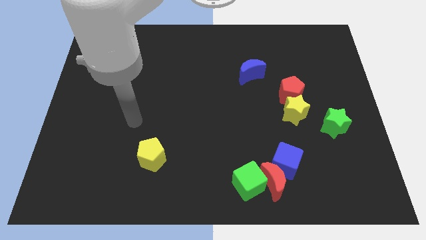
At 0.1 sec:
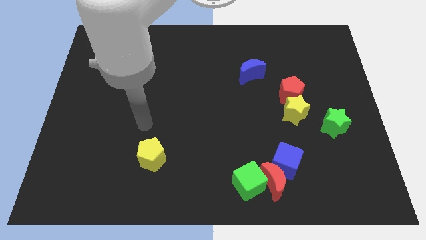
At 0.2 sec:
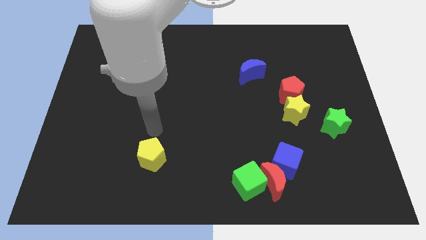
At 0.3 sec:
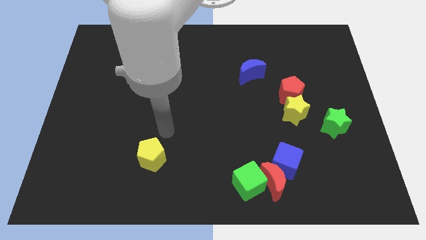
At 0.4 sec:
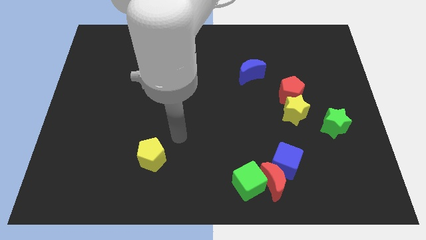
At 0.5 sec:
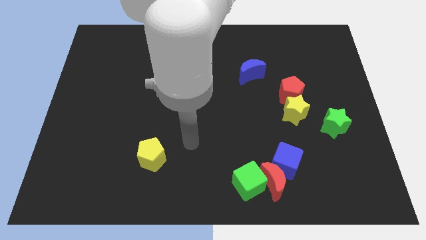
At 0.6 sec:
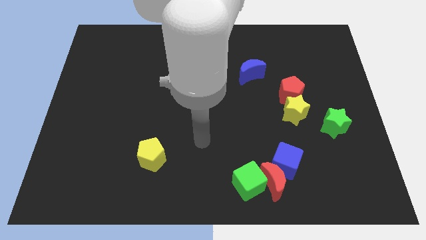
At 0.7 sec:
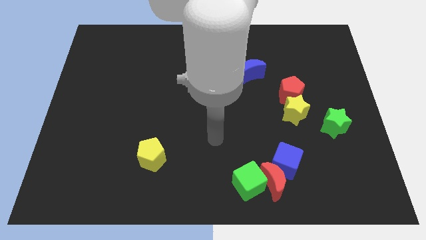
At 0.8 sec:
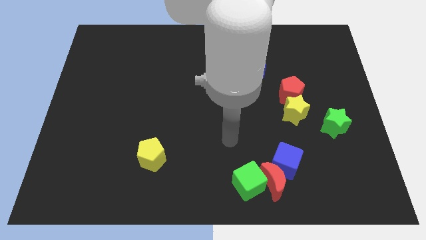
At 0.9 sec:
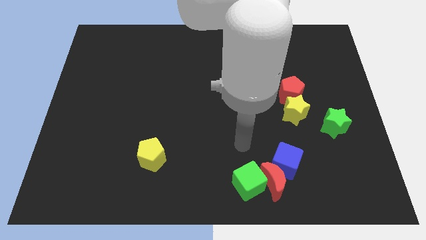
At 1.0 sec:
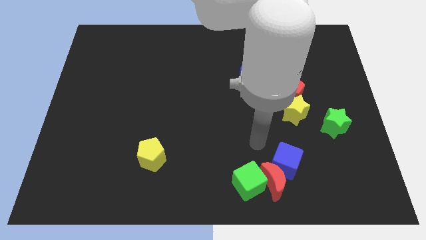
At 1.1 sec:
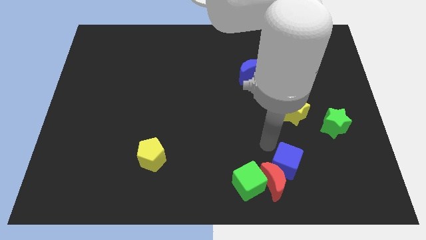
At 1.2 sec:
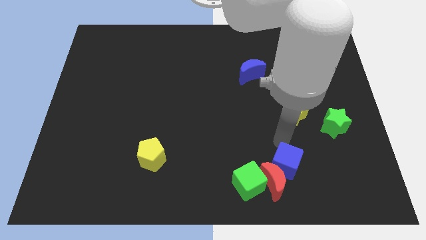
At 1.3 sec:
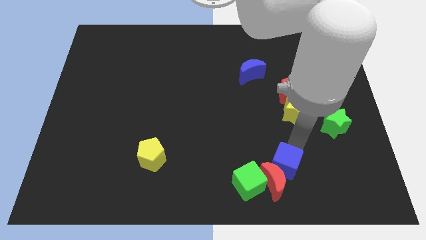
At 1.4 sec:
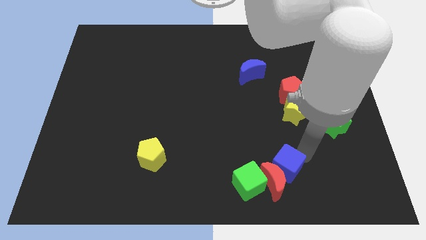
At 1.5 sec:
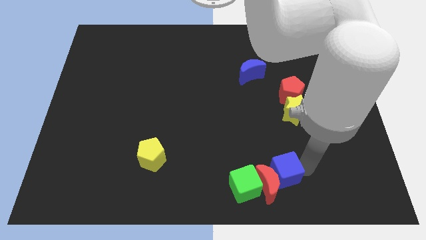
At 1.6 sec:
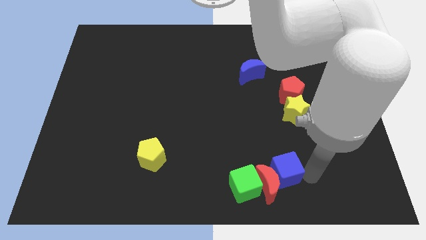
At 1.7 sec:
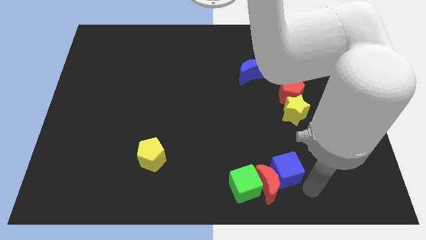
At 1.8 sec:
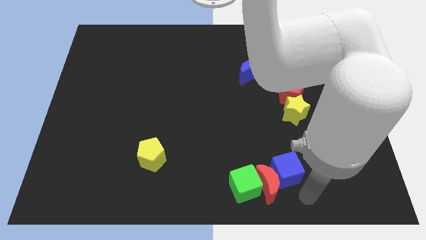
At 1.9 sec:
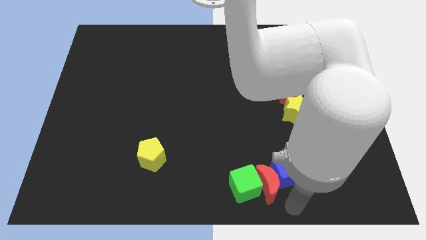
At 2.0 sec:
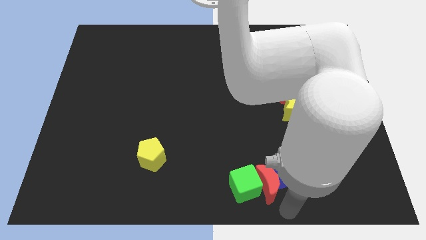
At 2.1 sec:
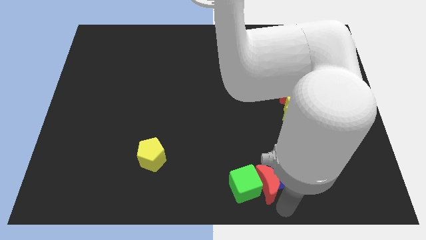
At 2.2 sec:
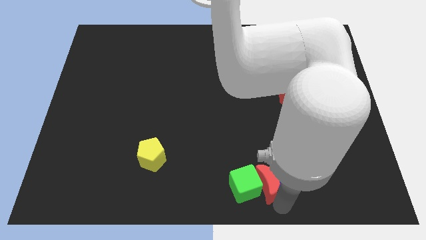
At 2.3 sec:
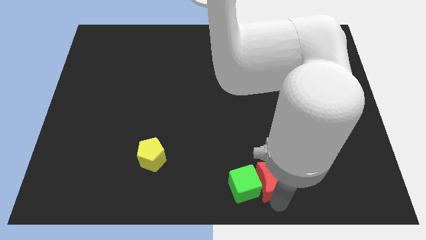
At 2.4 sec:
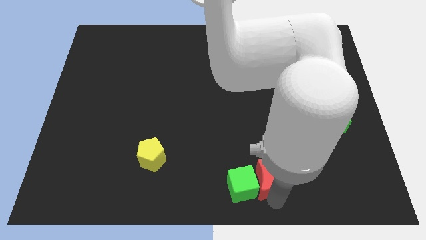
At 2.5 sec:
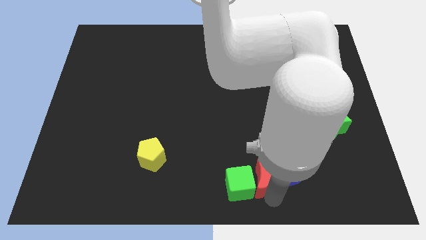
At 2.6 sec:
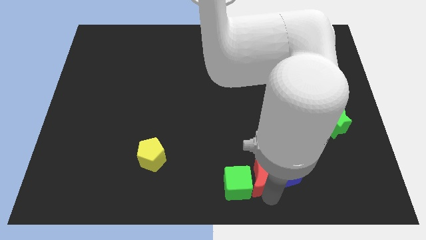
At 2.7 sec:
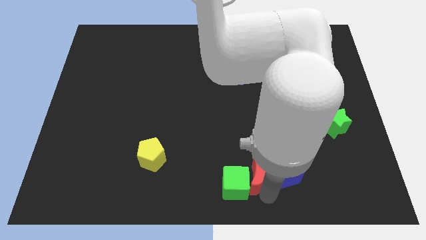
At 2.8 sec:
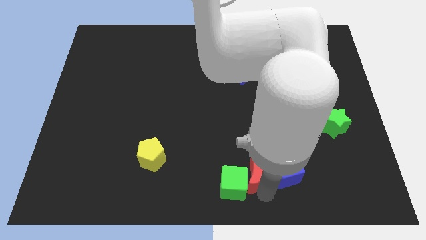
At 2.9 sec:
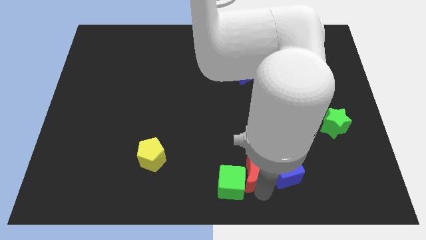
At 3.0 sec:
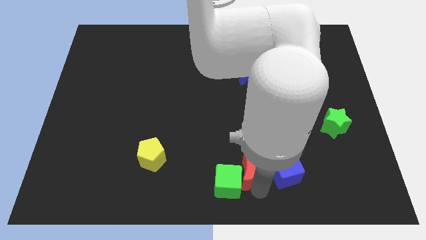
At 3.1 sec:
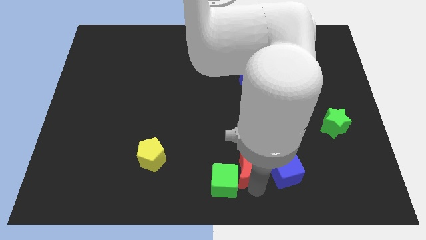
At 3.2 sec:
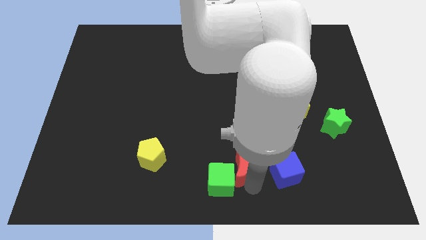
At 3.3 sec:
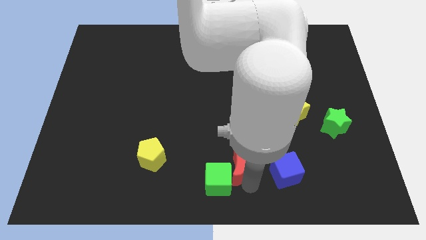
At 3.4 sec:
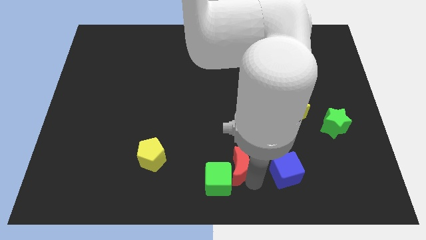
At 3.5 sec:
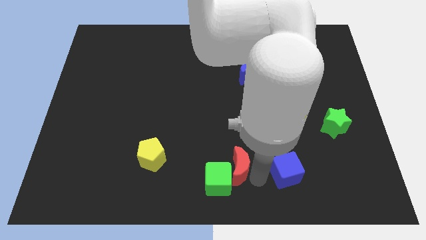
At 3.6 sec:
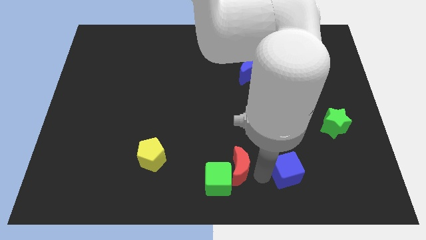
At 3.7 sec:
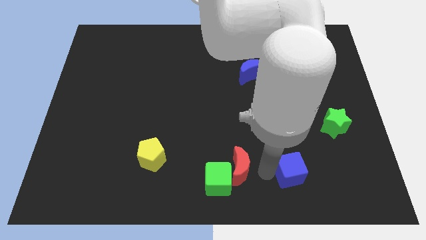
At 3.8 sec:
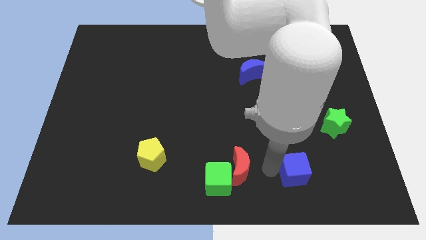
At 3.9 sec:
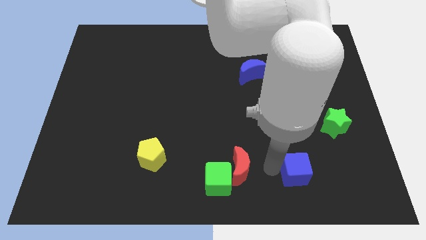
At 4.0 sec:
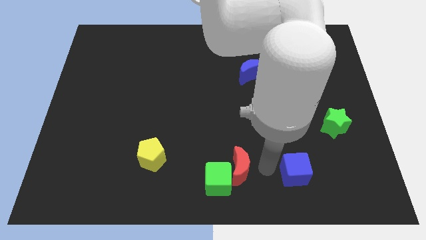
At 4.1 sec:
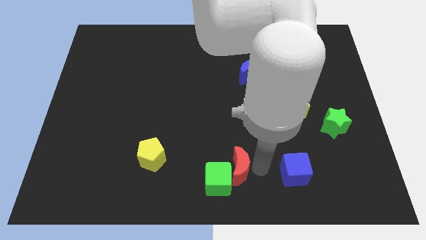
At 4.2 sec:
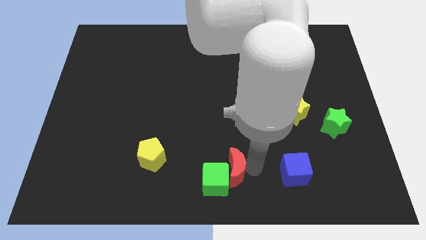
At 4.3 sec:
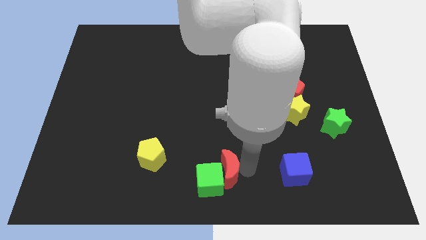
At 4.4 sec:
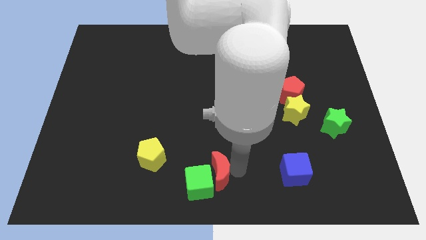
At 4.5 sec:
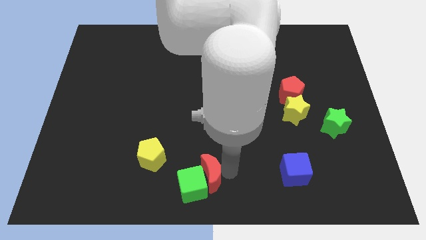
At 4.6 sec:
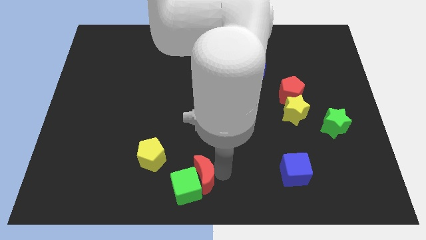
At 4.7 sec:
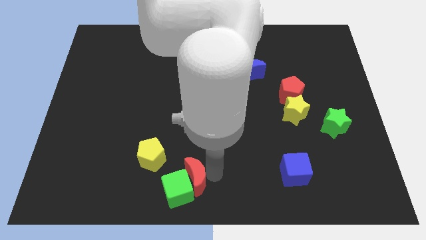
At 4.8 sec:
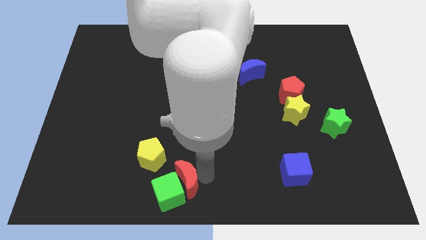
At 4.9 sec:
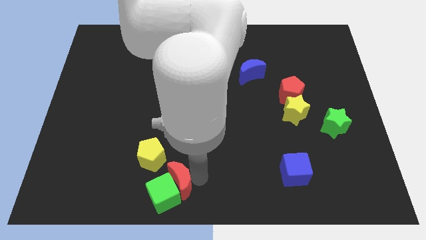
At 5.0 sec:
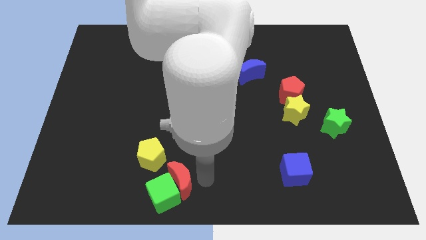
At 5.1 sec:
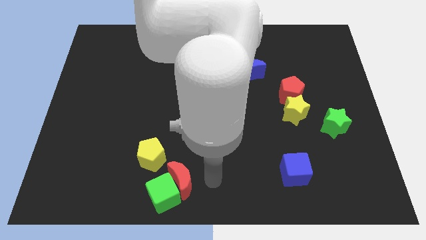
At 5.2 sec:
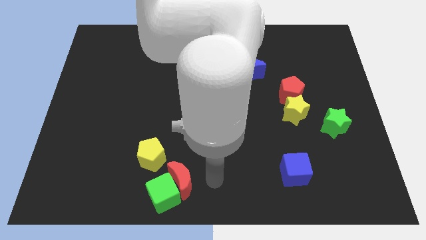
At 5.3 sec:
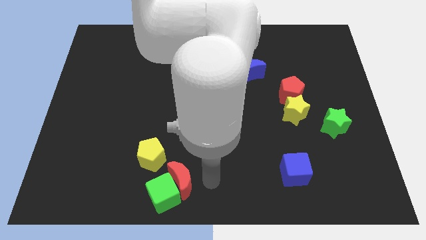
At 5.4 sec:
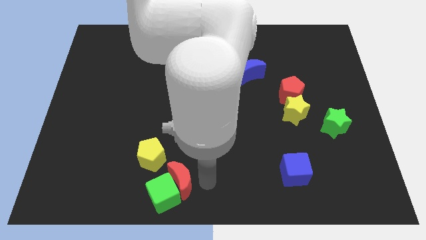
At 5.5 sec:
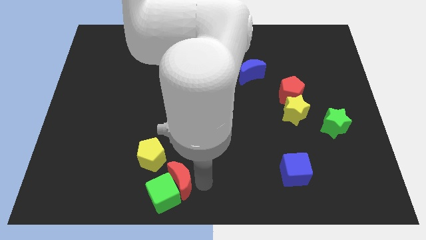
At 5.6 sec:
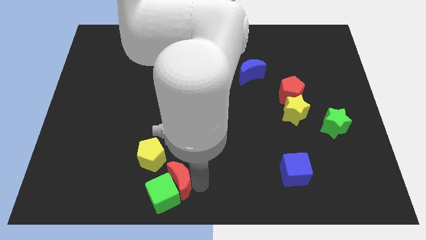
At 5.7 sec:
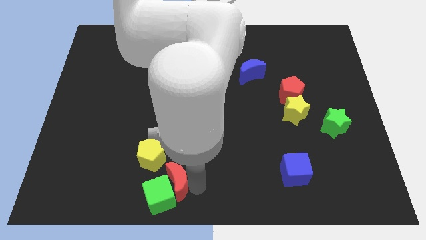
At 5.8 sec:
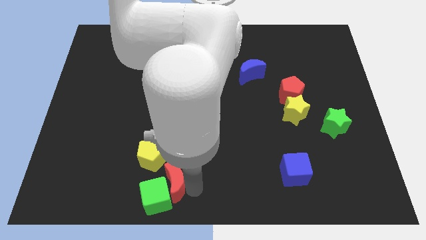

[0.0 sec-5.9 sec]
move the red moon to the left

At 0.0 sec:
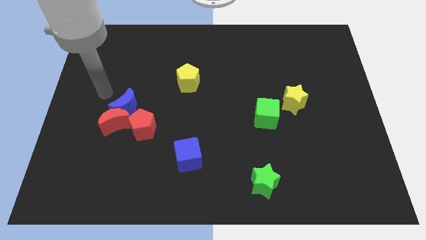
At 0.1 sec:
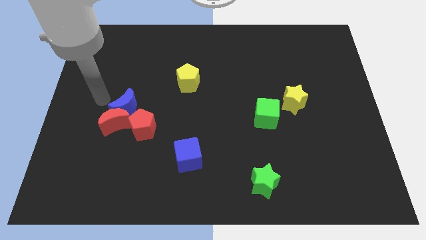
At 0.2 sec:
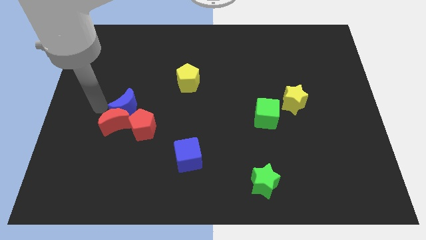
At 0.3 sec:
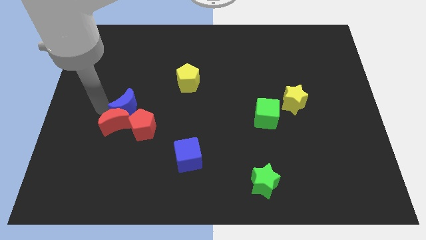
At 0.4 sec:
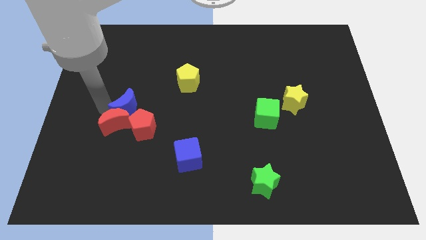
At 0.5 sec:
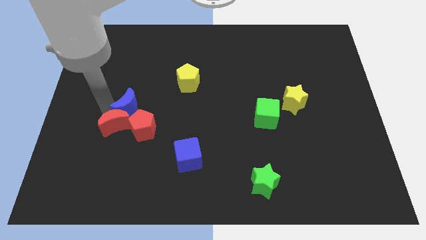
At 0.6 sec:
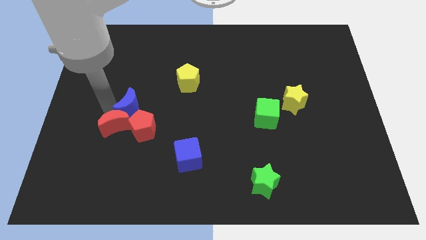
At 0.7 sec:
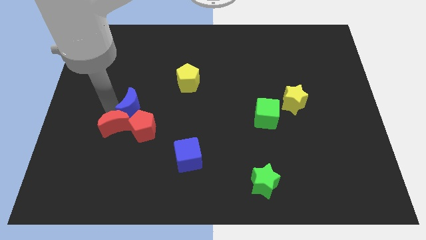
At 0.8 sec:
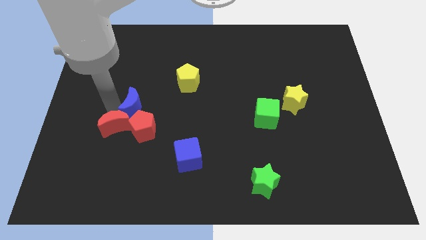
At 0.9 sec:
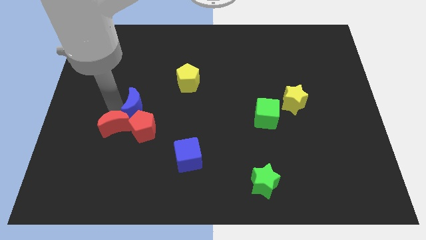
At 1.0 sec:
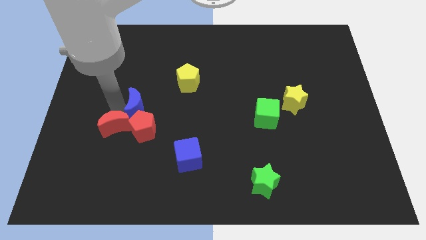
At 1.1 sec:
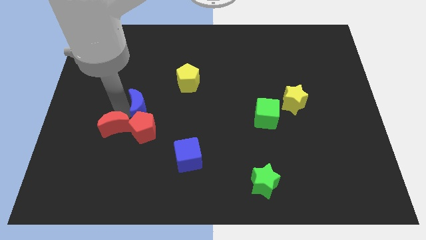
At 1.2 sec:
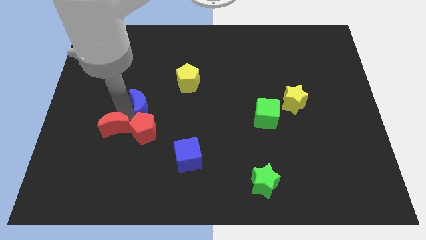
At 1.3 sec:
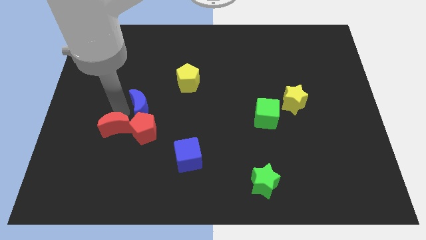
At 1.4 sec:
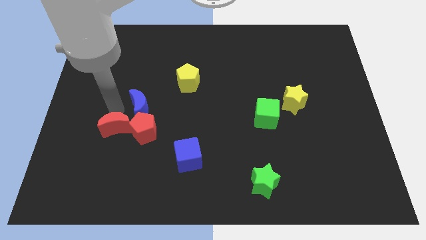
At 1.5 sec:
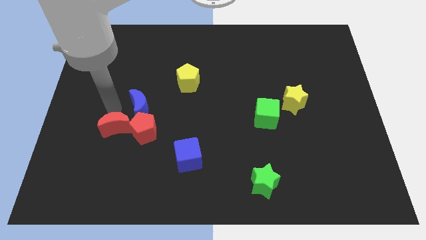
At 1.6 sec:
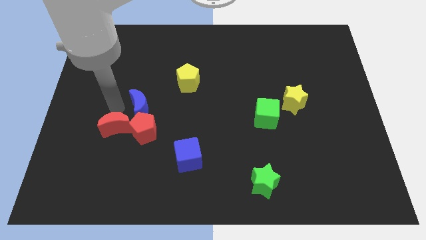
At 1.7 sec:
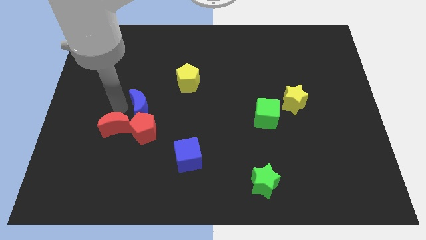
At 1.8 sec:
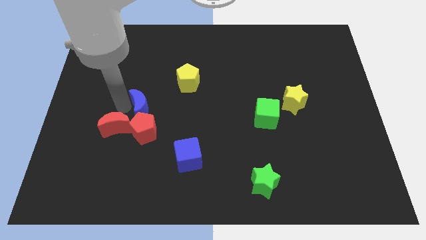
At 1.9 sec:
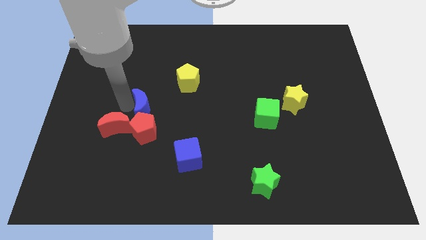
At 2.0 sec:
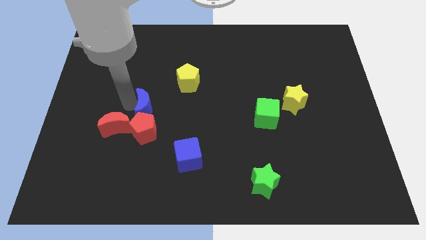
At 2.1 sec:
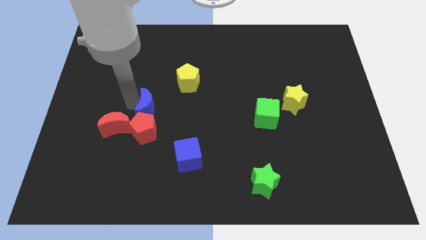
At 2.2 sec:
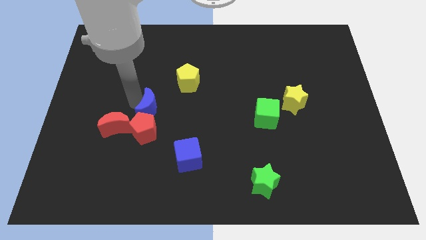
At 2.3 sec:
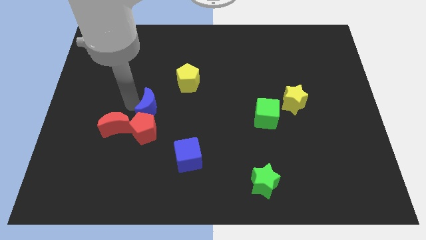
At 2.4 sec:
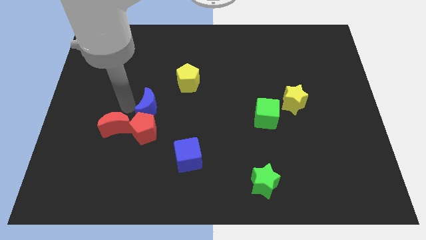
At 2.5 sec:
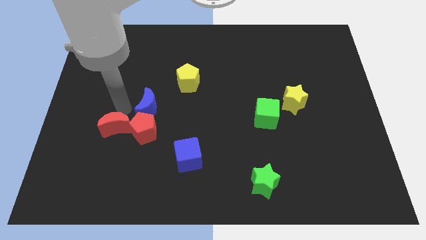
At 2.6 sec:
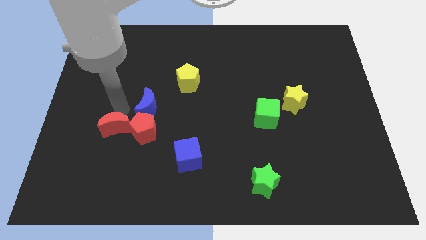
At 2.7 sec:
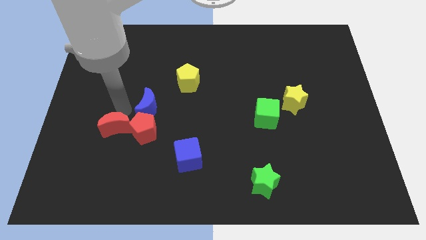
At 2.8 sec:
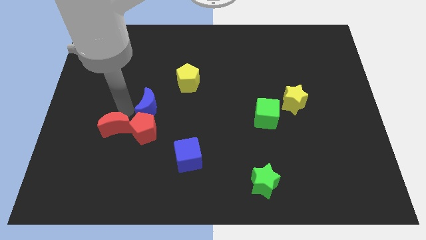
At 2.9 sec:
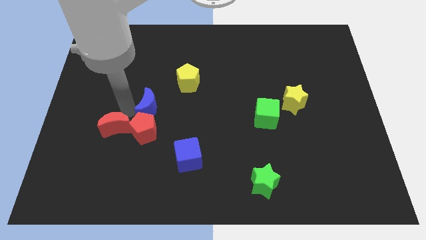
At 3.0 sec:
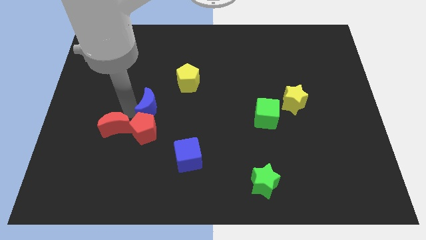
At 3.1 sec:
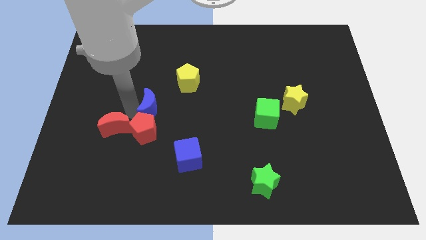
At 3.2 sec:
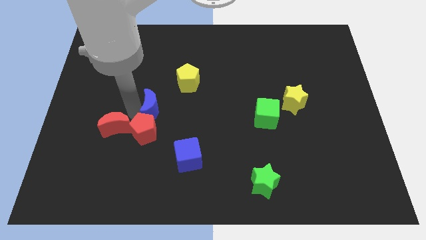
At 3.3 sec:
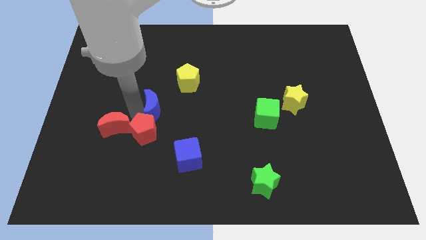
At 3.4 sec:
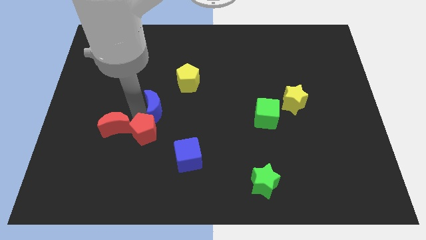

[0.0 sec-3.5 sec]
push the blue moon to the right a little bit
